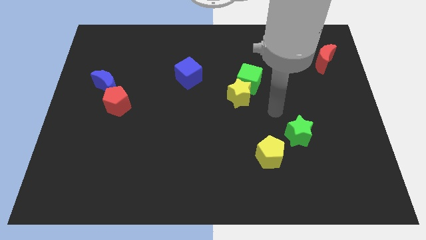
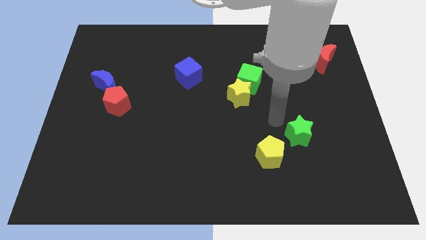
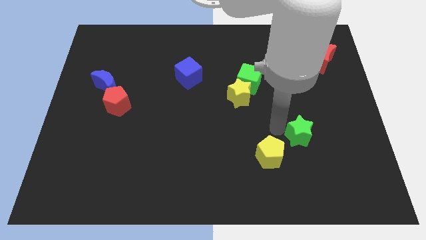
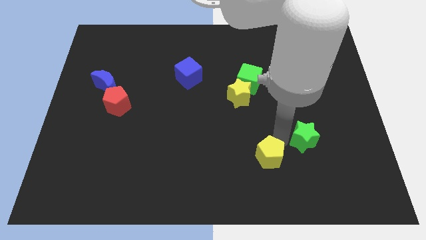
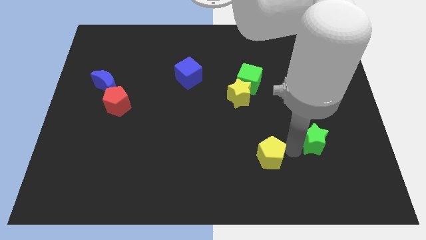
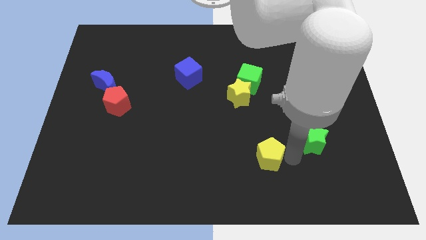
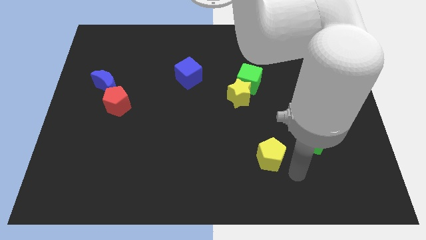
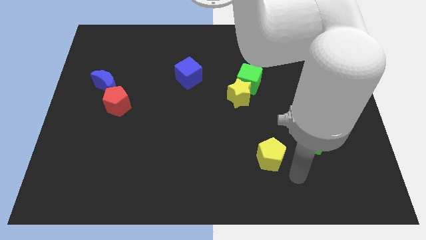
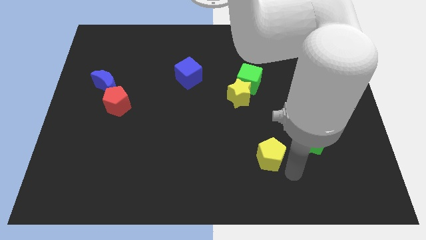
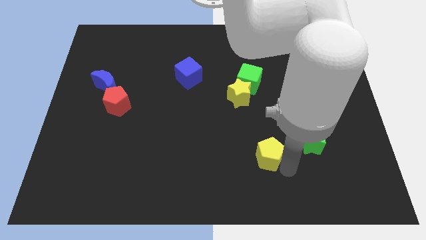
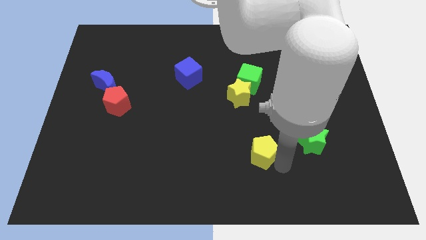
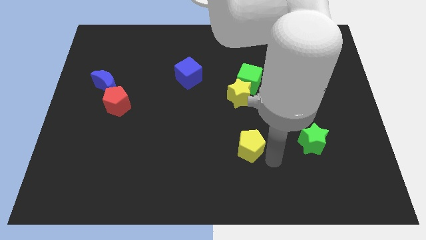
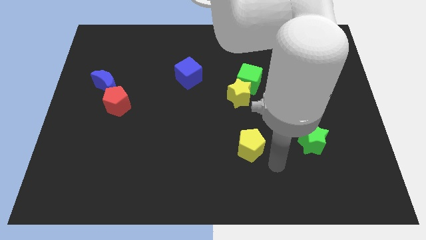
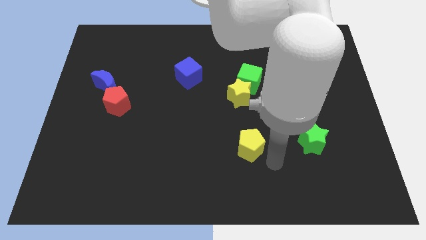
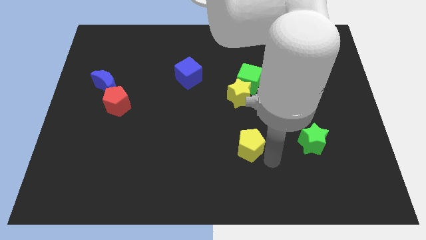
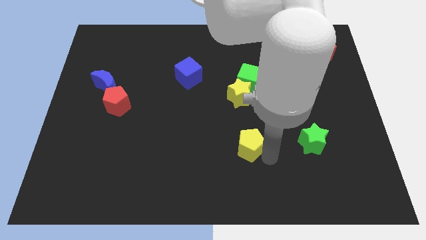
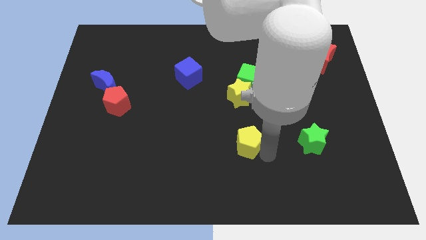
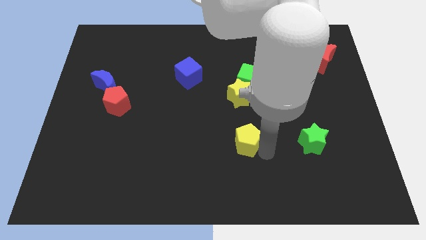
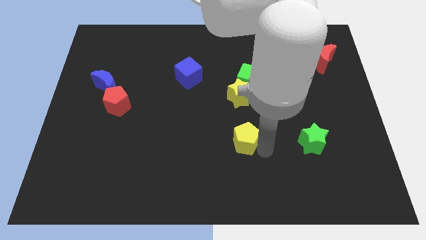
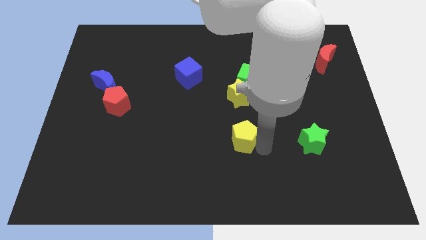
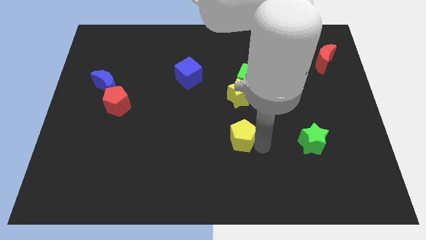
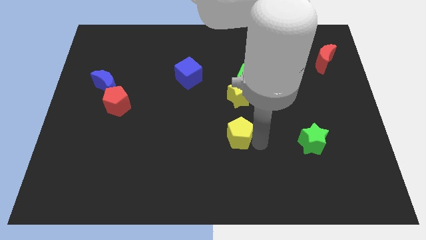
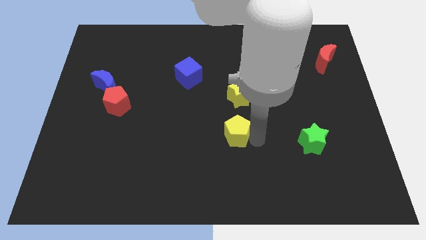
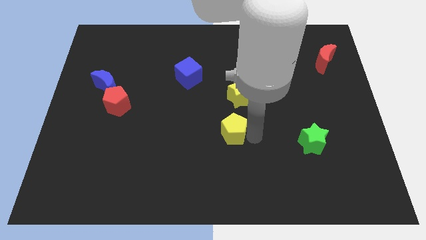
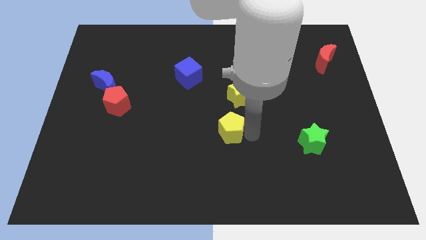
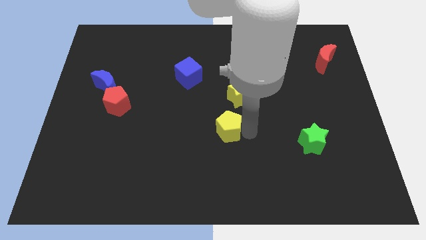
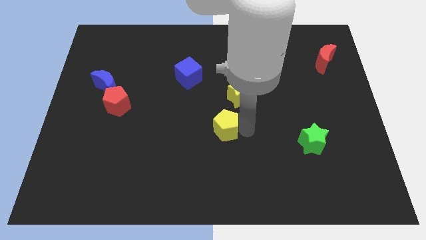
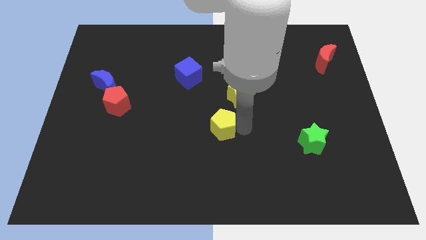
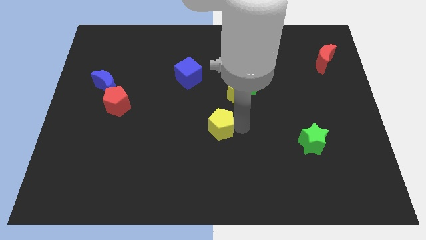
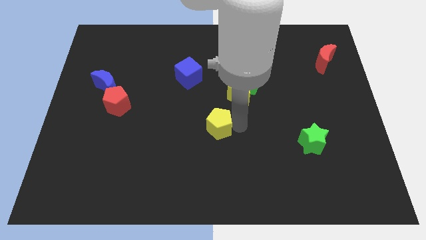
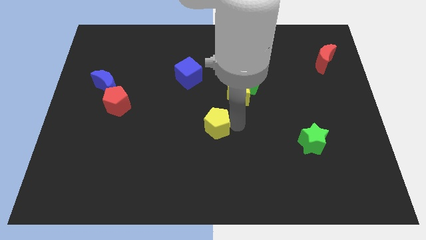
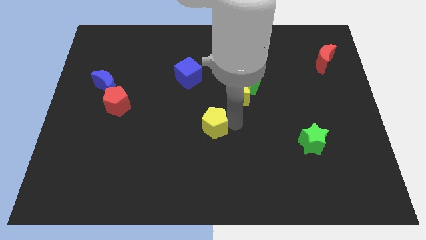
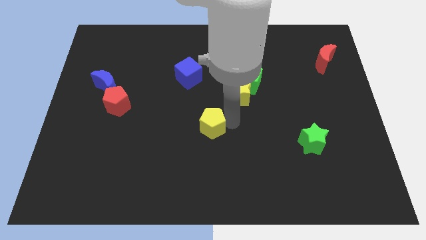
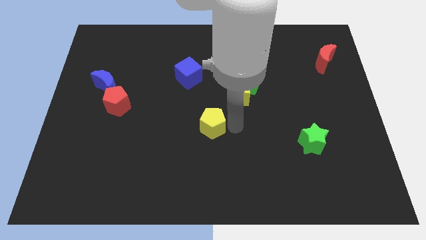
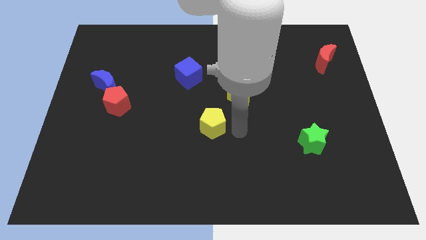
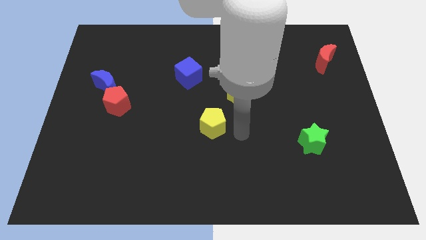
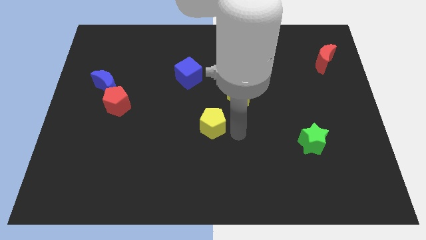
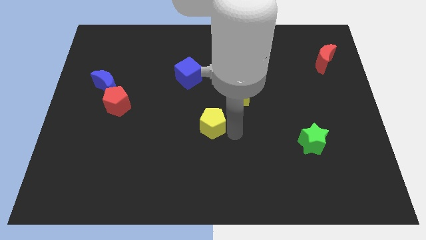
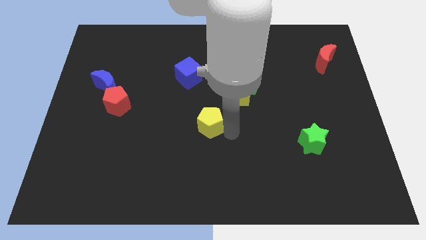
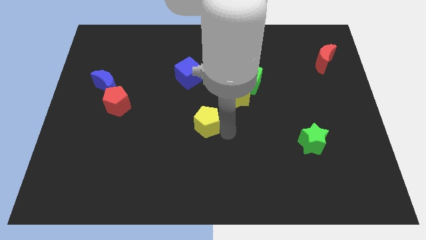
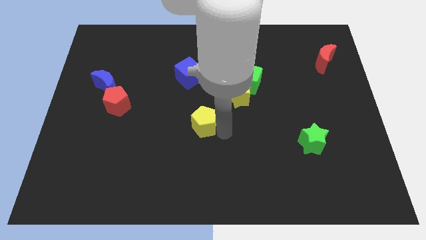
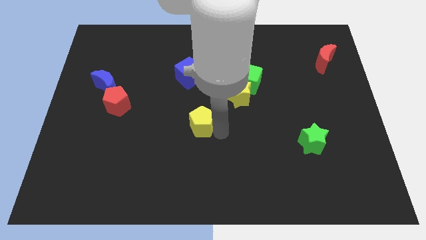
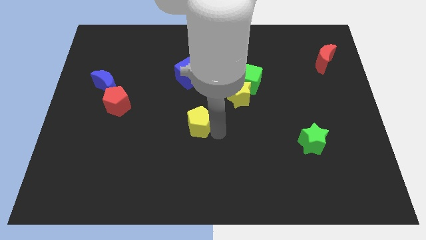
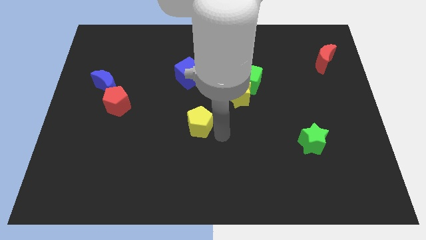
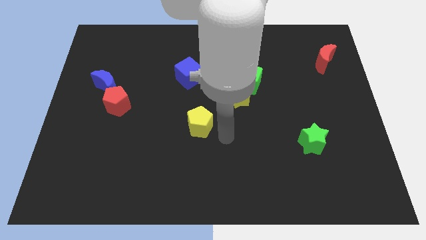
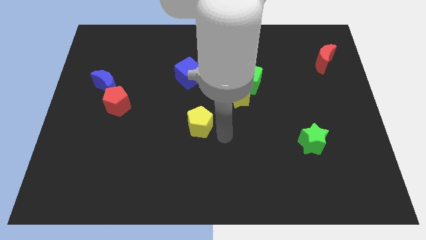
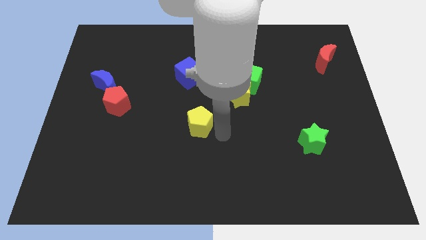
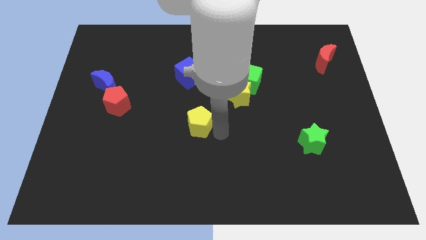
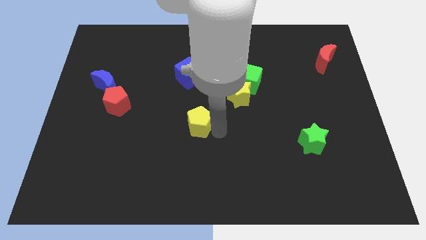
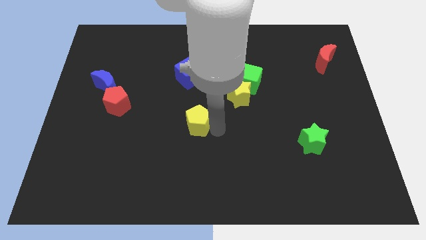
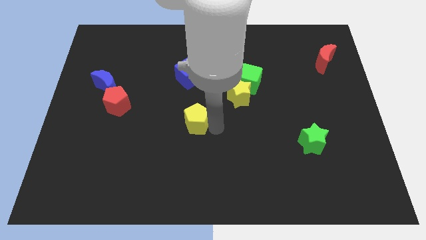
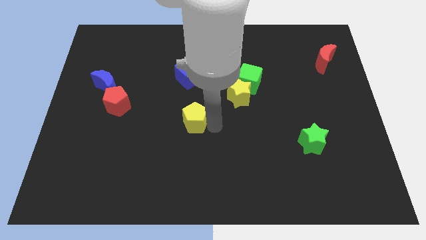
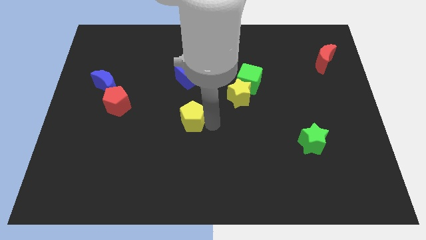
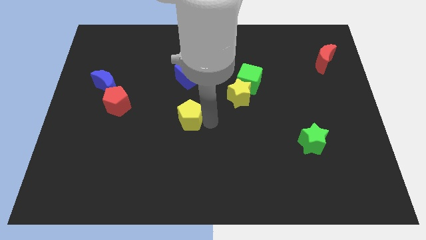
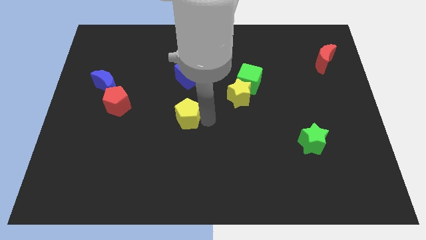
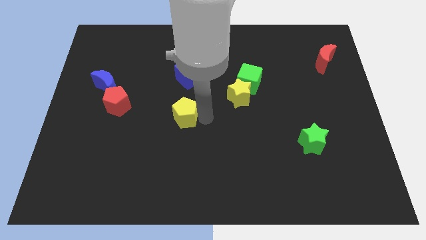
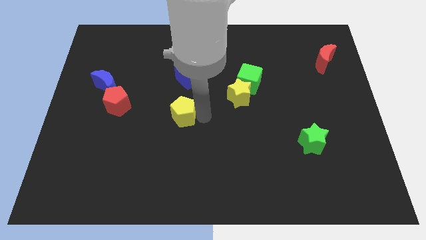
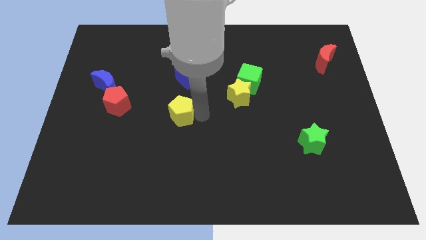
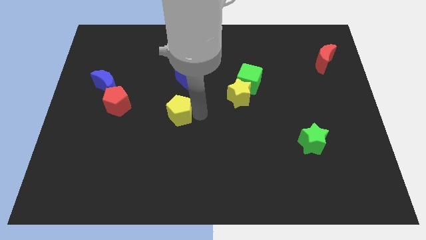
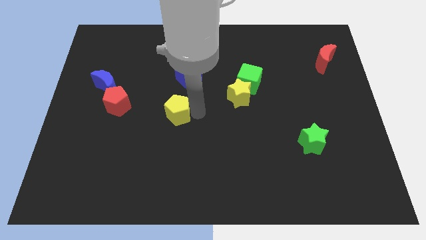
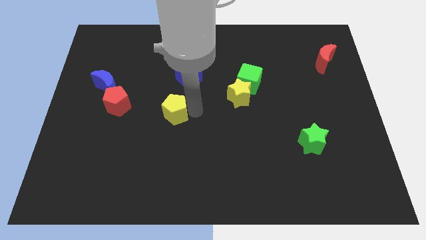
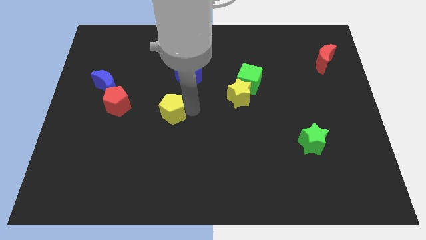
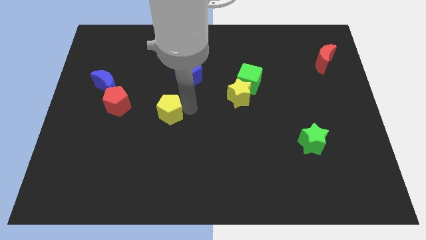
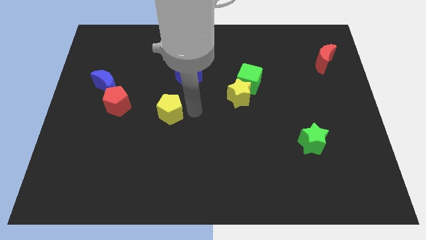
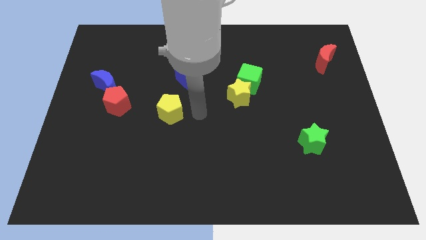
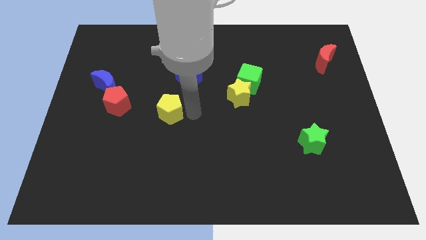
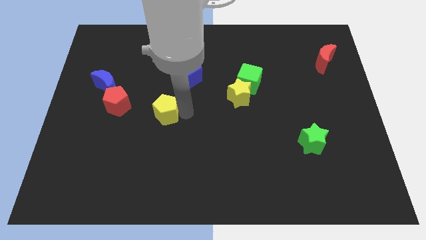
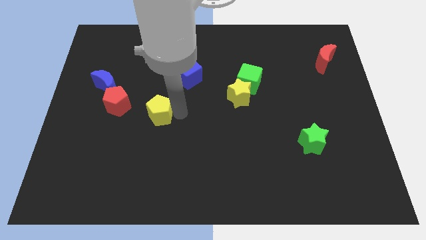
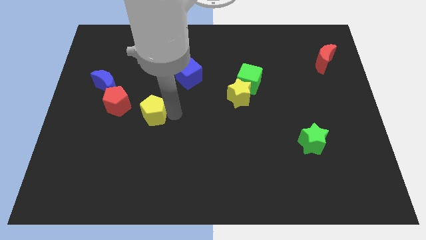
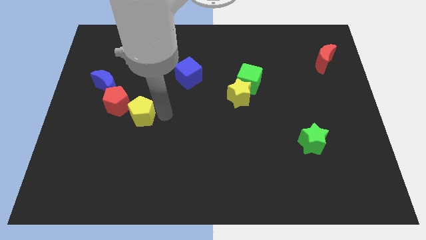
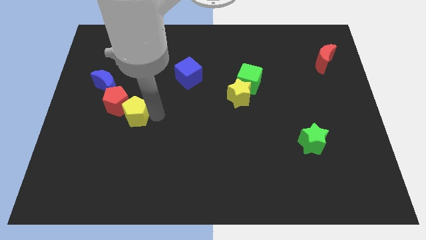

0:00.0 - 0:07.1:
push the yellow pentagon to the red pentagon
